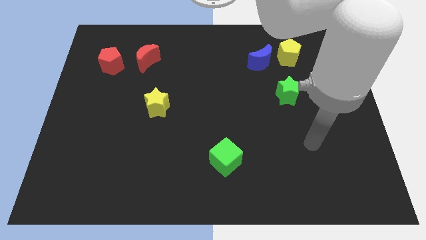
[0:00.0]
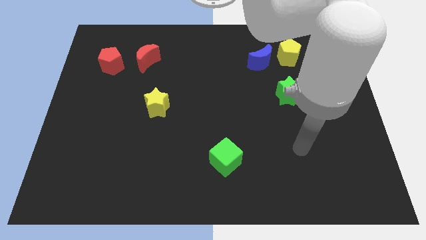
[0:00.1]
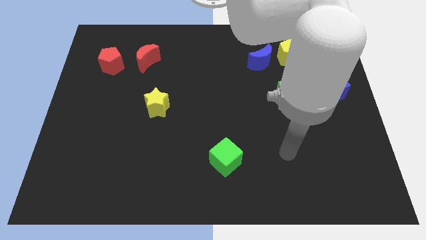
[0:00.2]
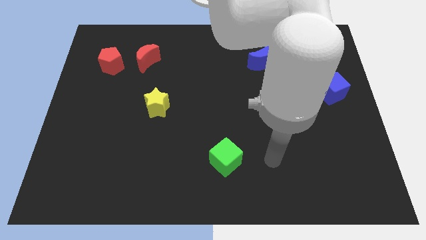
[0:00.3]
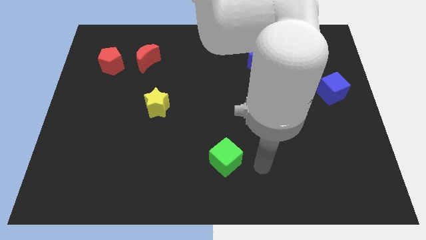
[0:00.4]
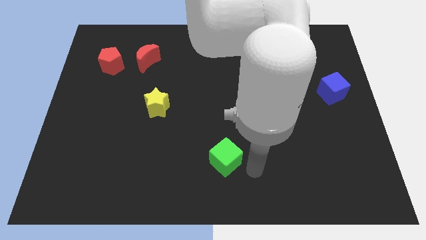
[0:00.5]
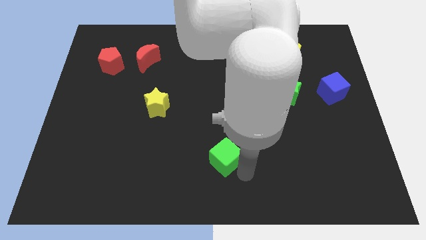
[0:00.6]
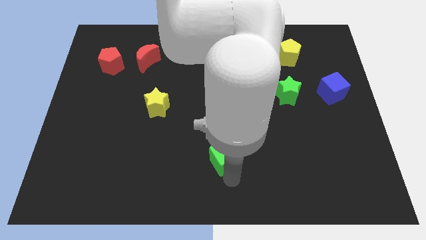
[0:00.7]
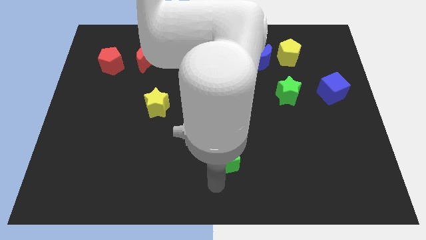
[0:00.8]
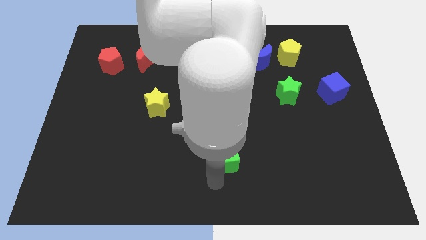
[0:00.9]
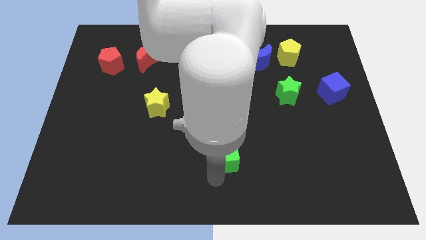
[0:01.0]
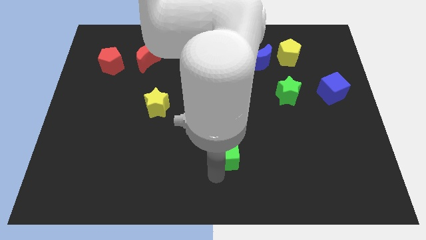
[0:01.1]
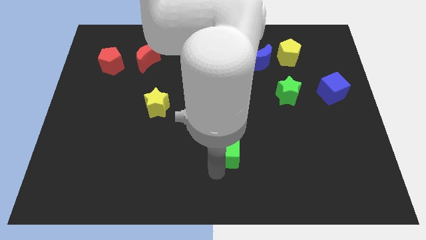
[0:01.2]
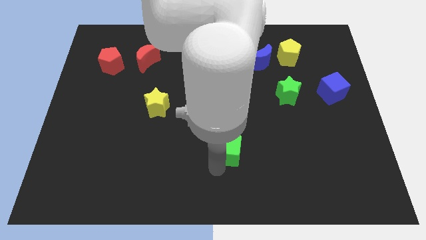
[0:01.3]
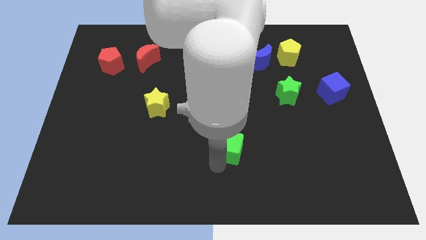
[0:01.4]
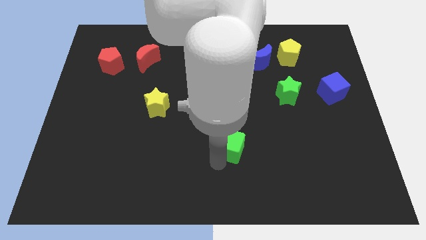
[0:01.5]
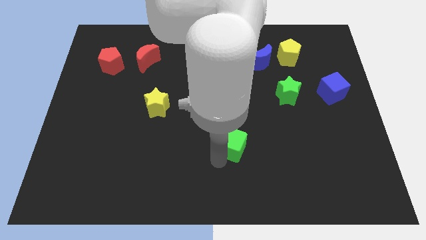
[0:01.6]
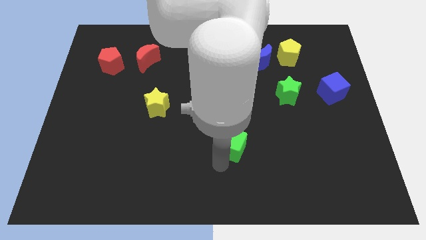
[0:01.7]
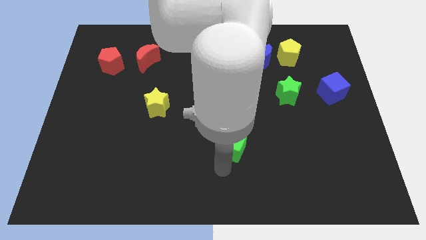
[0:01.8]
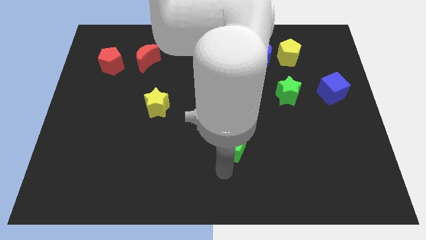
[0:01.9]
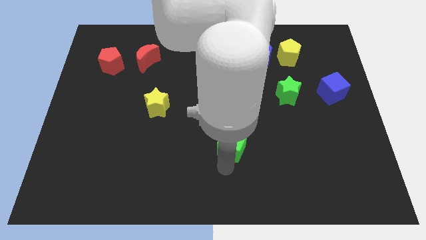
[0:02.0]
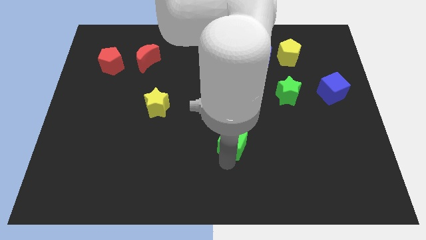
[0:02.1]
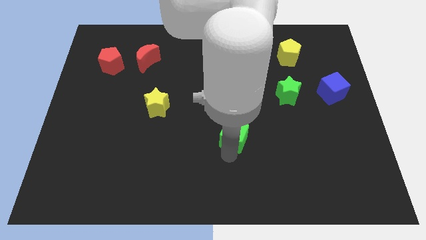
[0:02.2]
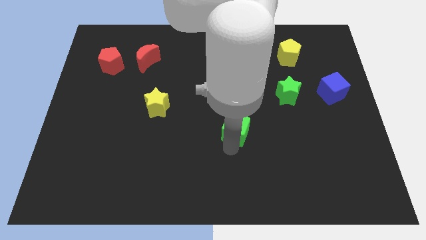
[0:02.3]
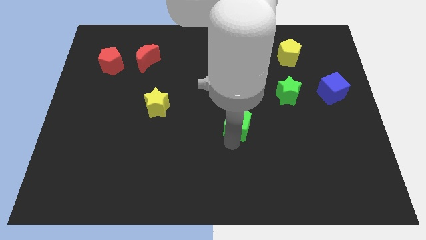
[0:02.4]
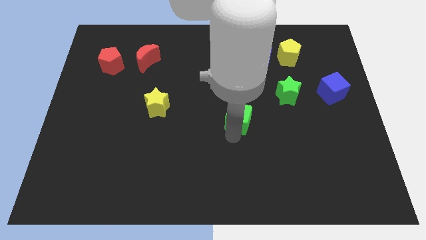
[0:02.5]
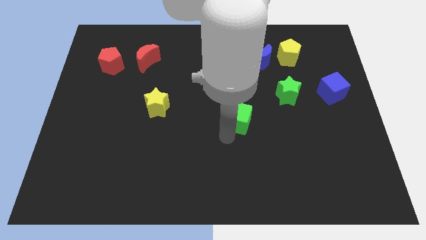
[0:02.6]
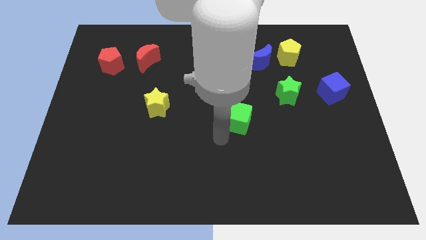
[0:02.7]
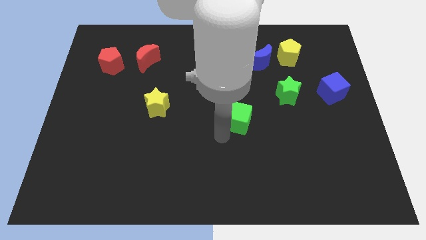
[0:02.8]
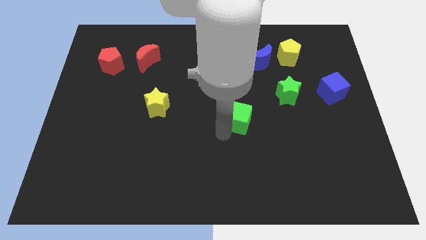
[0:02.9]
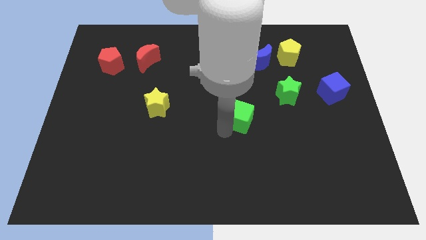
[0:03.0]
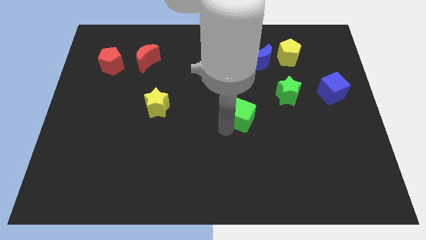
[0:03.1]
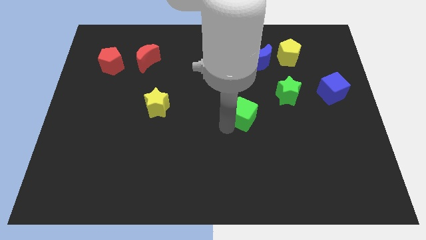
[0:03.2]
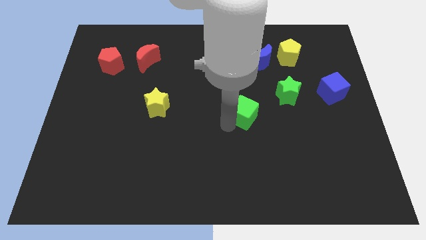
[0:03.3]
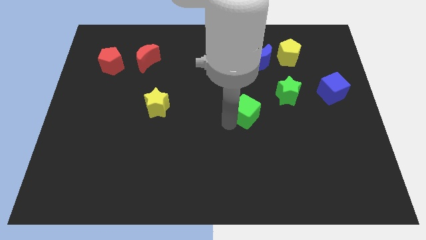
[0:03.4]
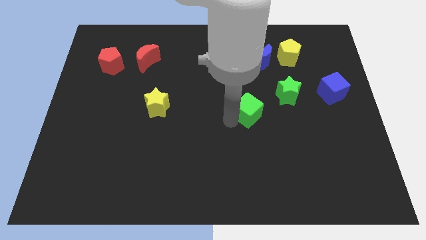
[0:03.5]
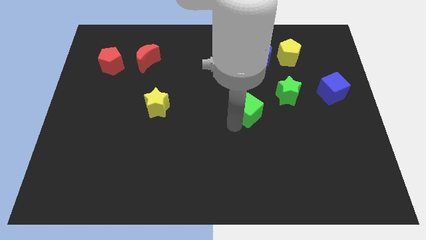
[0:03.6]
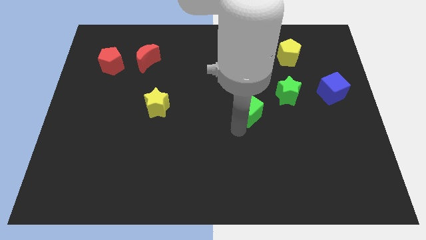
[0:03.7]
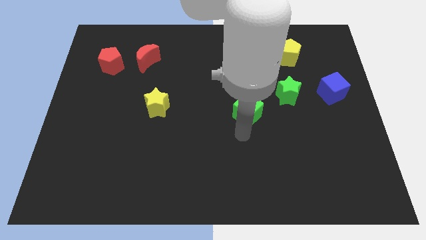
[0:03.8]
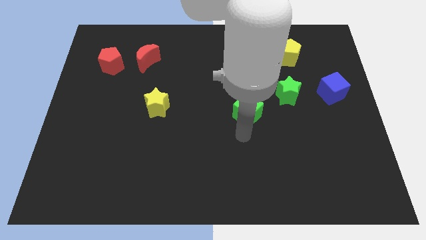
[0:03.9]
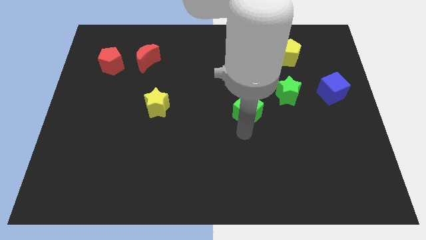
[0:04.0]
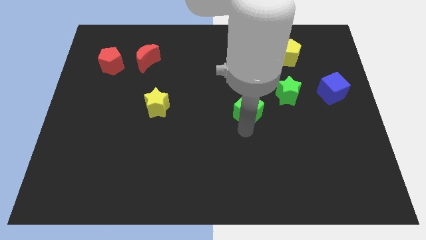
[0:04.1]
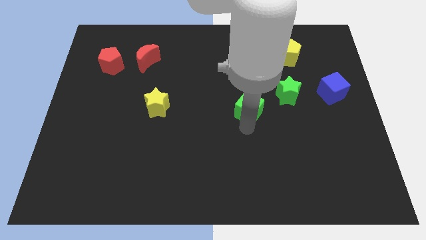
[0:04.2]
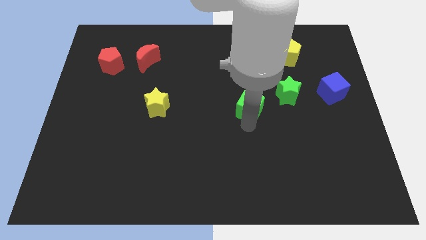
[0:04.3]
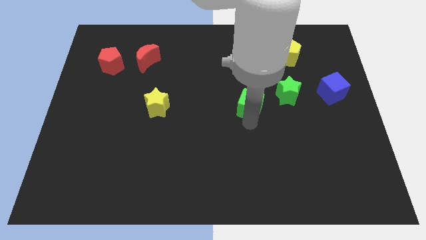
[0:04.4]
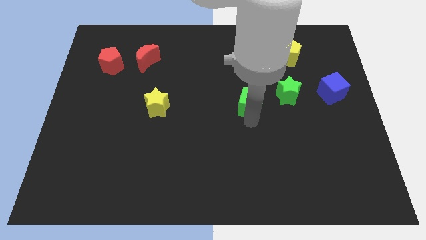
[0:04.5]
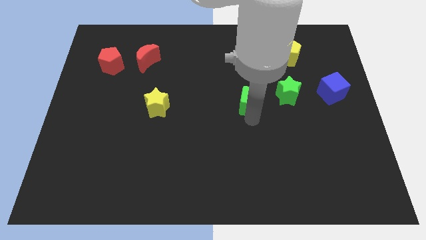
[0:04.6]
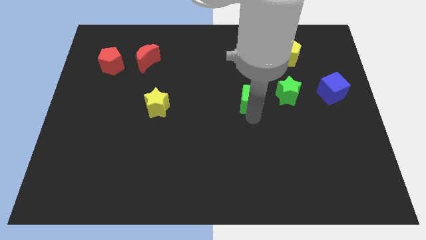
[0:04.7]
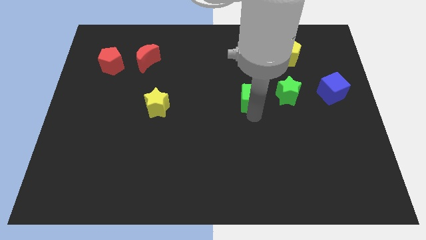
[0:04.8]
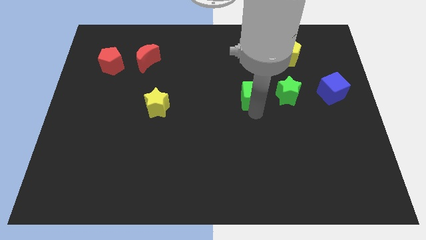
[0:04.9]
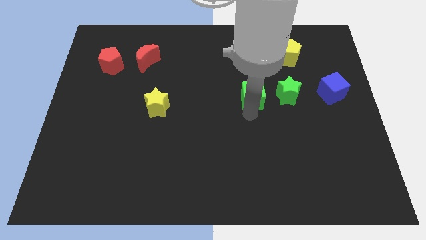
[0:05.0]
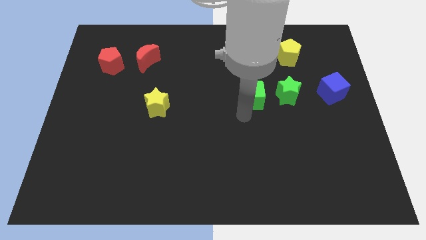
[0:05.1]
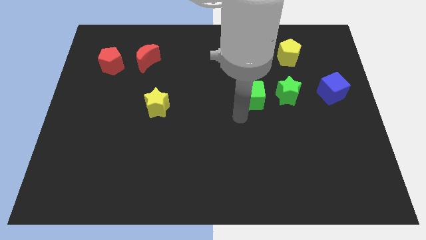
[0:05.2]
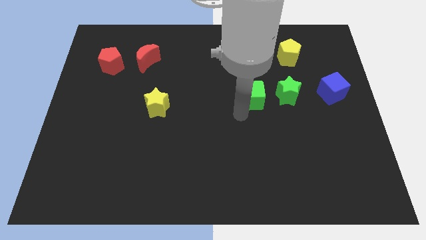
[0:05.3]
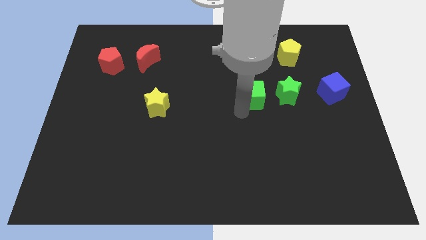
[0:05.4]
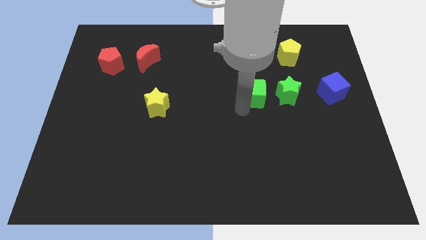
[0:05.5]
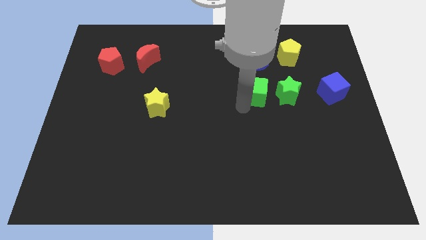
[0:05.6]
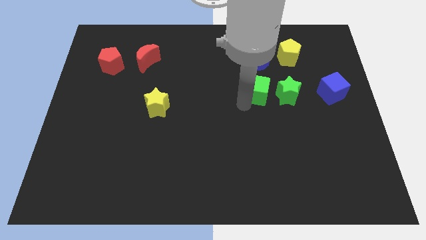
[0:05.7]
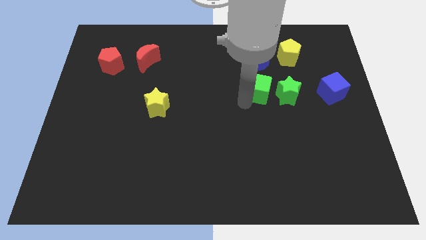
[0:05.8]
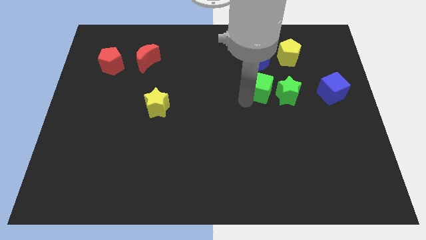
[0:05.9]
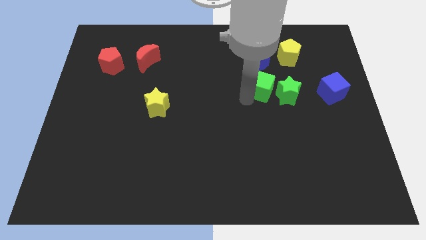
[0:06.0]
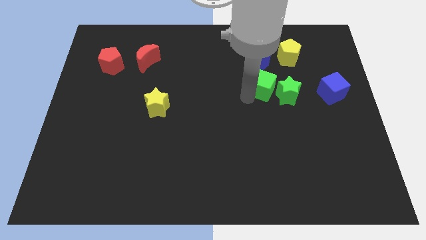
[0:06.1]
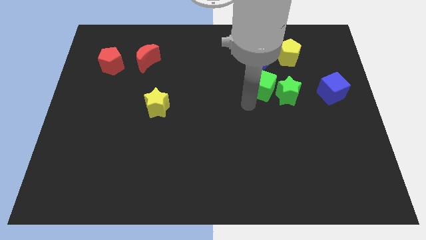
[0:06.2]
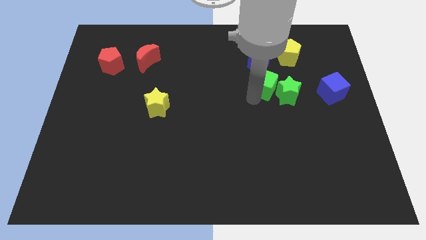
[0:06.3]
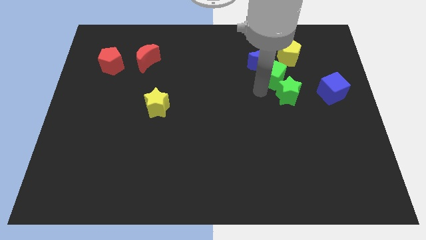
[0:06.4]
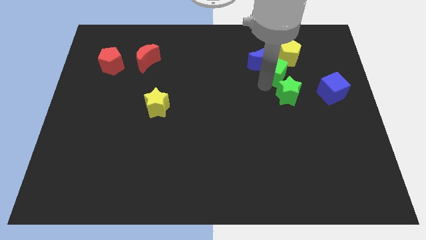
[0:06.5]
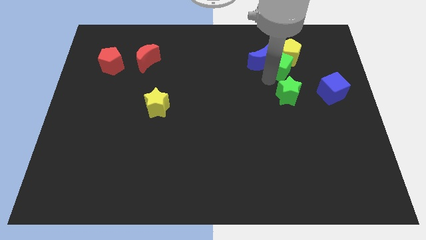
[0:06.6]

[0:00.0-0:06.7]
put the green cube towards the yellow pentagon

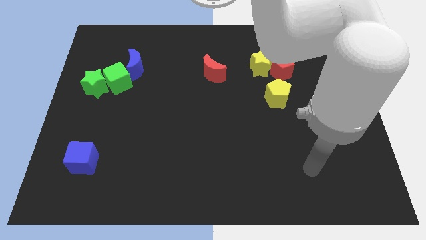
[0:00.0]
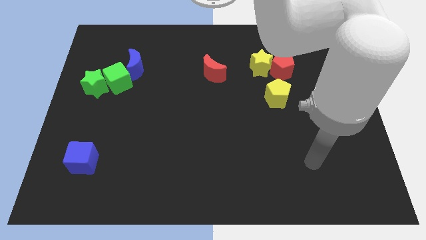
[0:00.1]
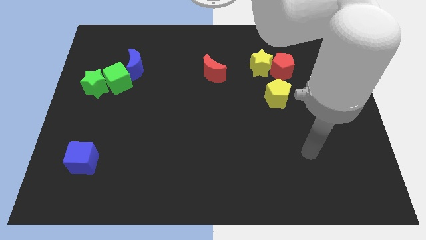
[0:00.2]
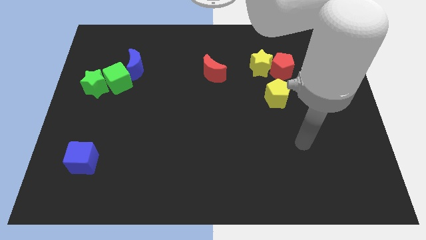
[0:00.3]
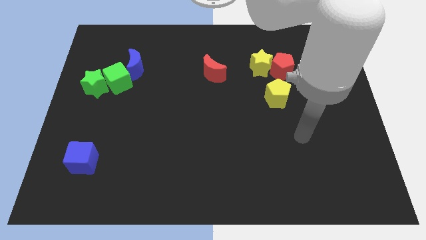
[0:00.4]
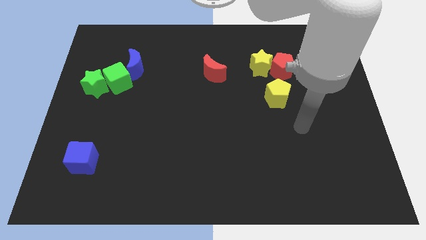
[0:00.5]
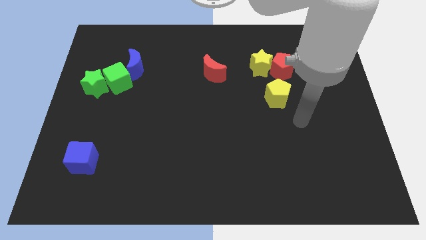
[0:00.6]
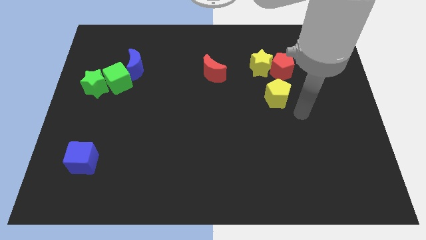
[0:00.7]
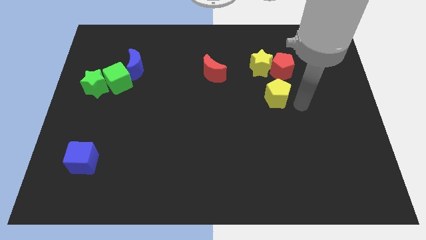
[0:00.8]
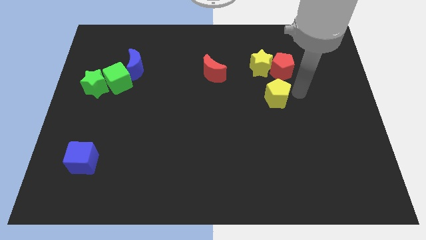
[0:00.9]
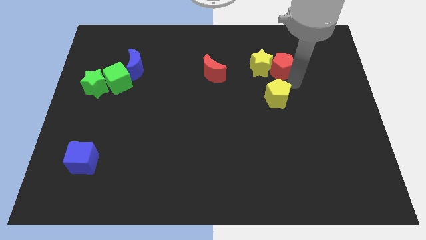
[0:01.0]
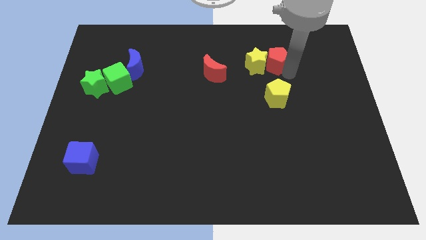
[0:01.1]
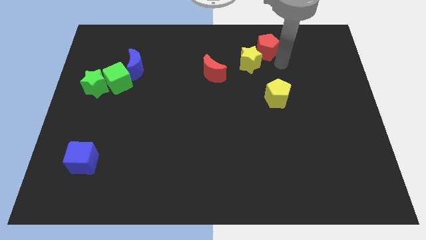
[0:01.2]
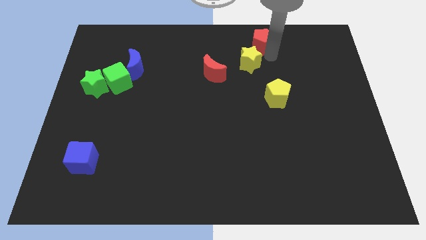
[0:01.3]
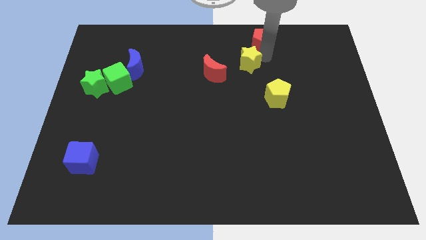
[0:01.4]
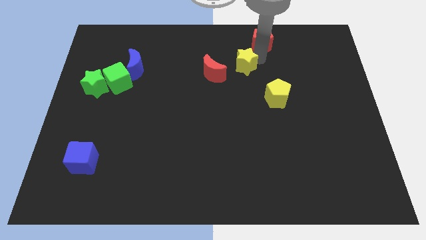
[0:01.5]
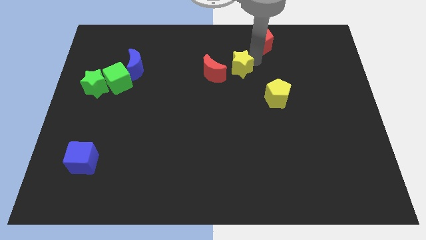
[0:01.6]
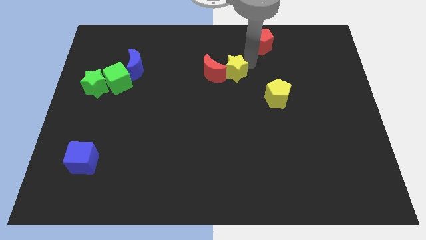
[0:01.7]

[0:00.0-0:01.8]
slide the yellow star next to the red moon
